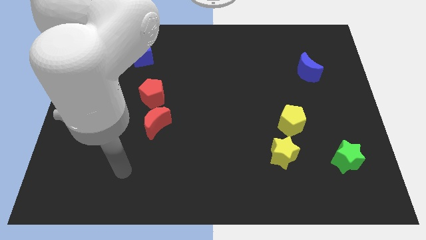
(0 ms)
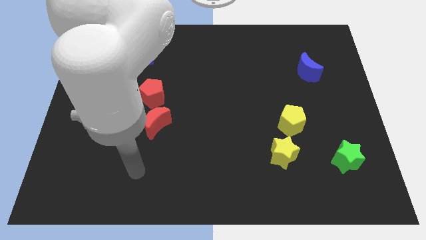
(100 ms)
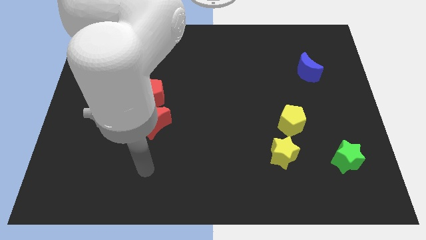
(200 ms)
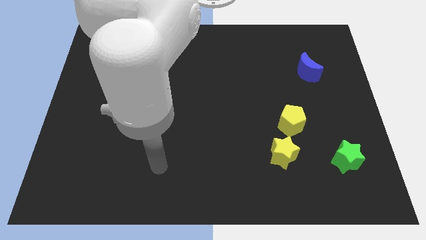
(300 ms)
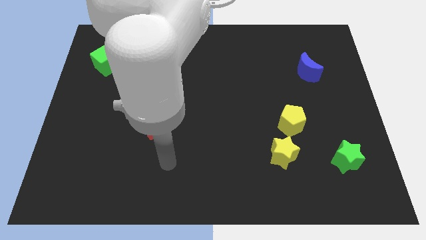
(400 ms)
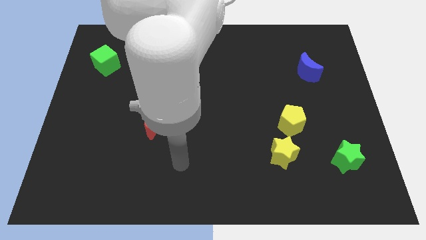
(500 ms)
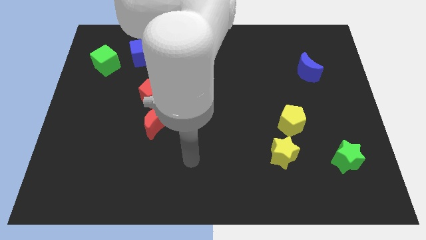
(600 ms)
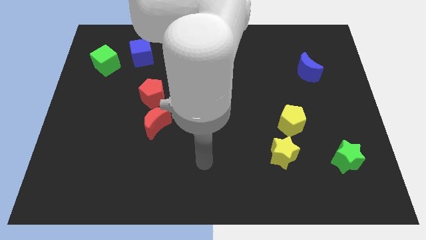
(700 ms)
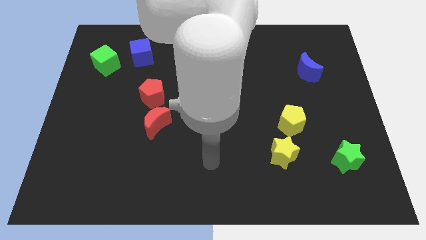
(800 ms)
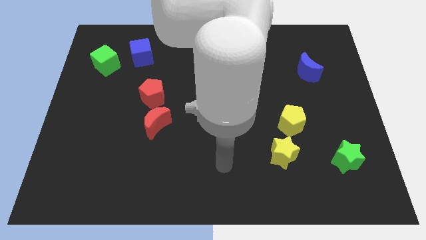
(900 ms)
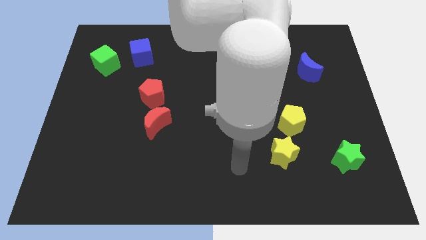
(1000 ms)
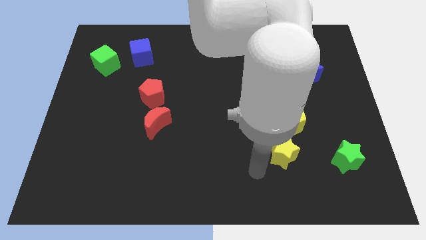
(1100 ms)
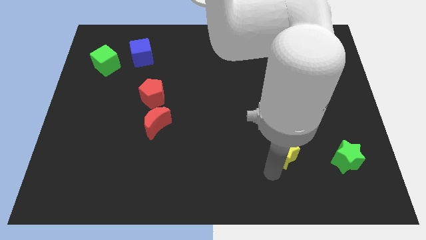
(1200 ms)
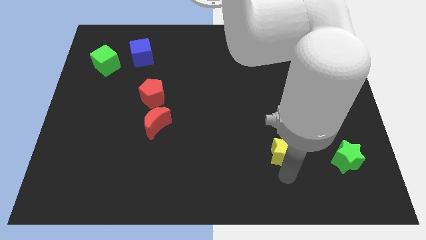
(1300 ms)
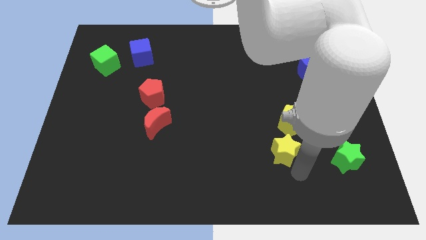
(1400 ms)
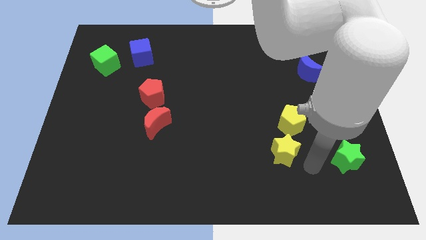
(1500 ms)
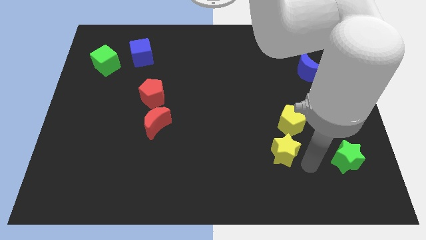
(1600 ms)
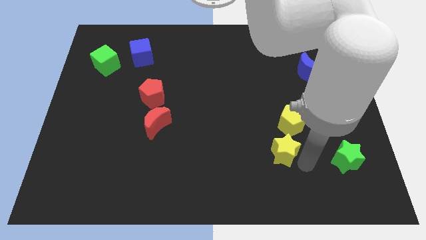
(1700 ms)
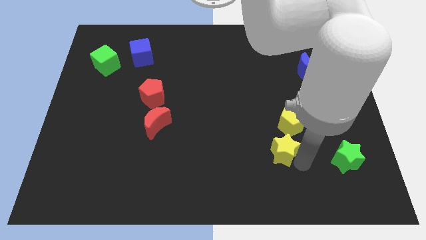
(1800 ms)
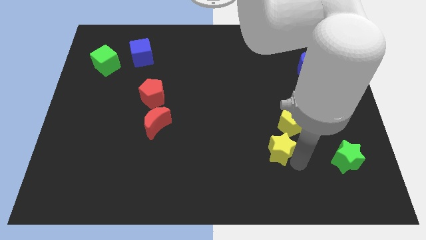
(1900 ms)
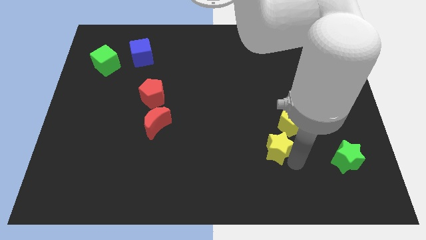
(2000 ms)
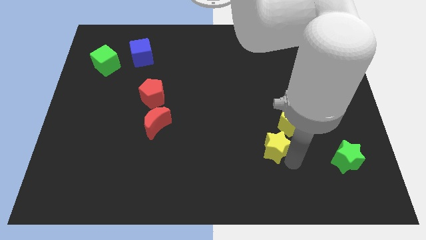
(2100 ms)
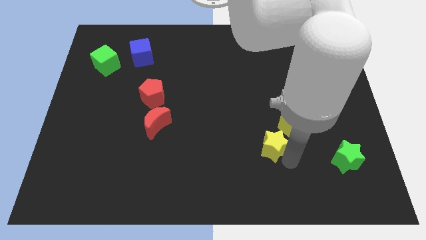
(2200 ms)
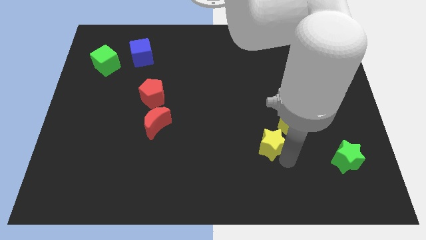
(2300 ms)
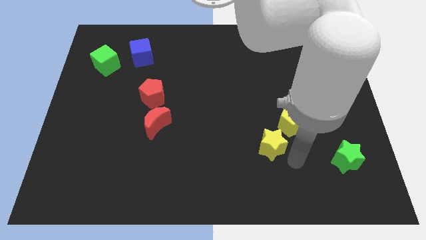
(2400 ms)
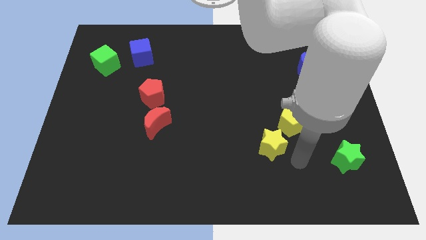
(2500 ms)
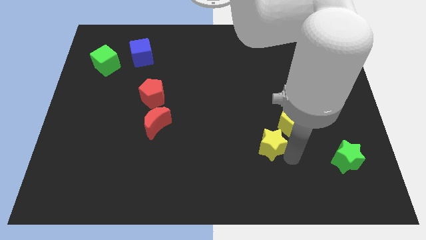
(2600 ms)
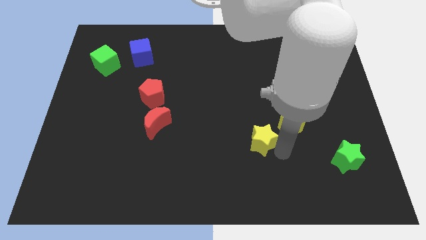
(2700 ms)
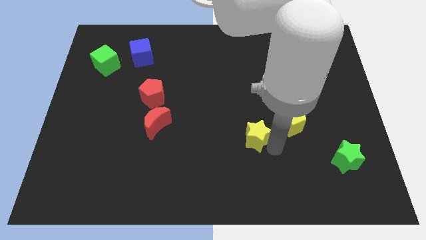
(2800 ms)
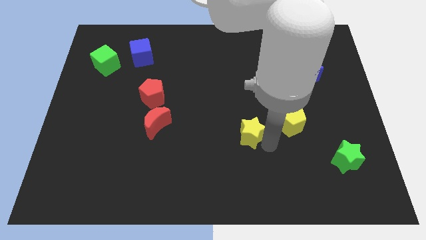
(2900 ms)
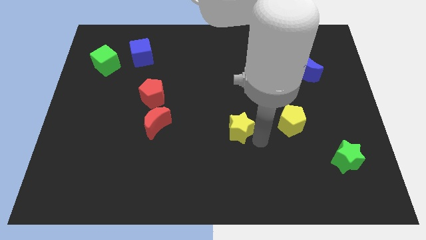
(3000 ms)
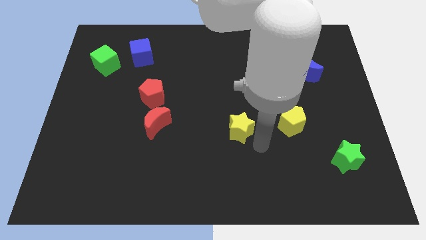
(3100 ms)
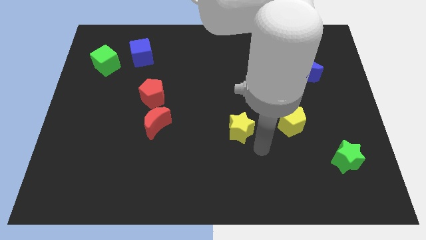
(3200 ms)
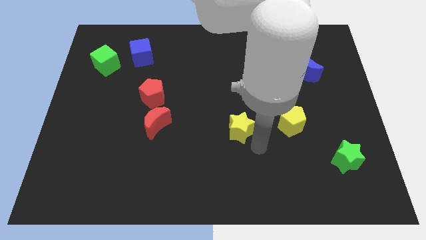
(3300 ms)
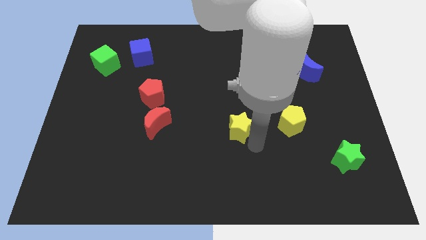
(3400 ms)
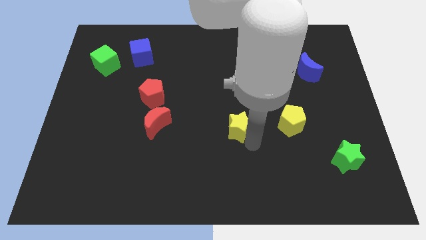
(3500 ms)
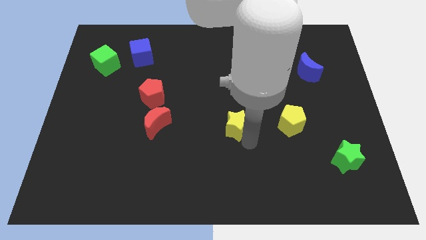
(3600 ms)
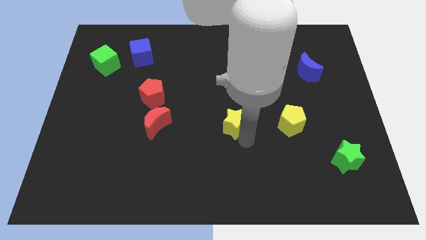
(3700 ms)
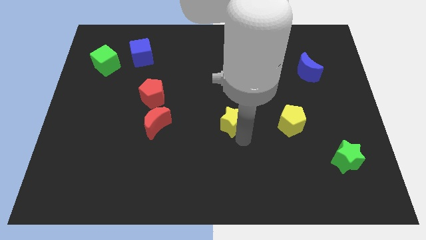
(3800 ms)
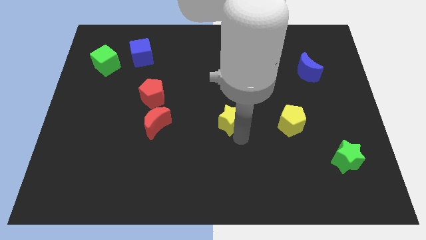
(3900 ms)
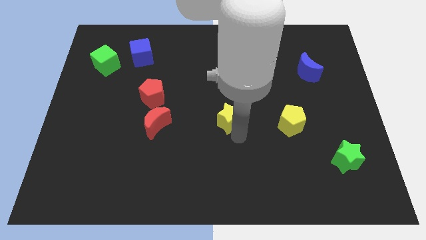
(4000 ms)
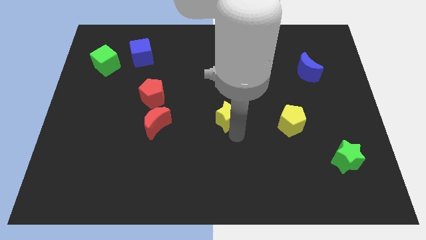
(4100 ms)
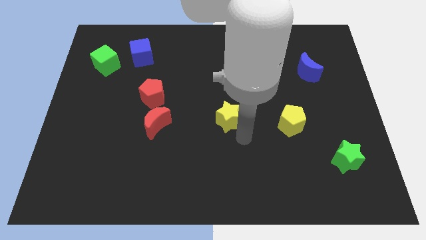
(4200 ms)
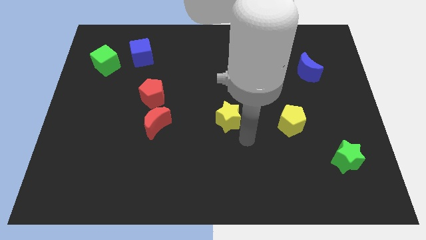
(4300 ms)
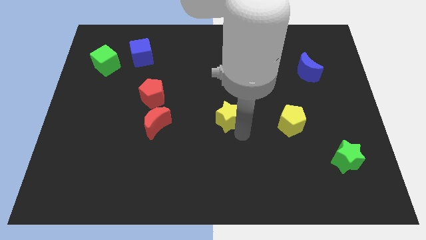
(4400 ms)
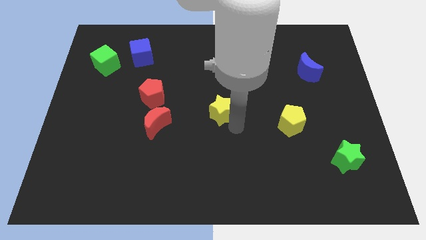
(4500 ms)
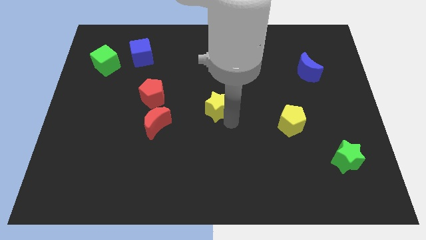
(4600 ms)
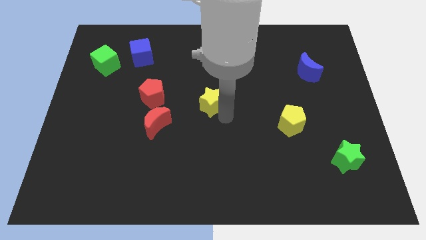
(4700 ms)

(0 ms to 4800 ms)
slide the yellow star up and left

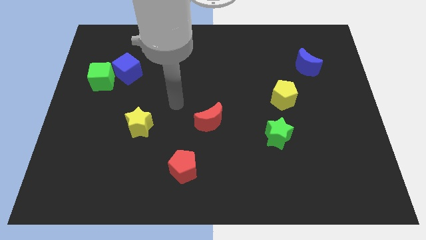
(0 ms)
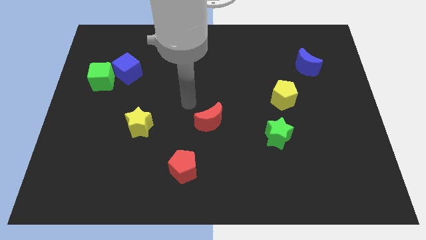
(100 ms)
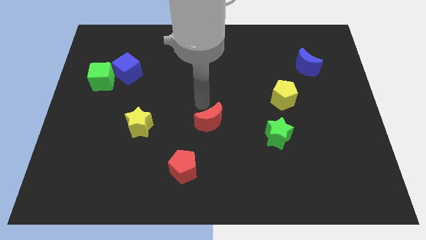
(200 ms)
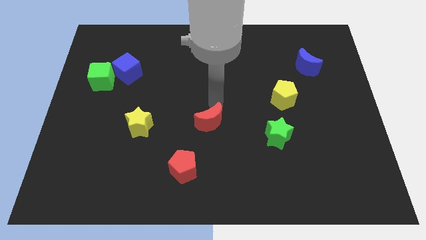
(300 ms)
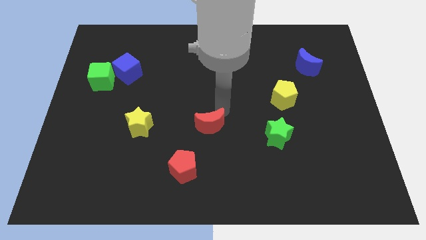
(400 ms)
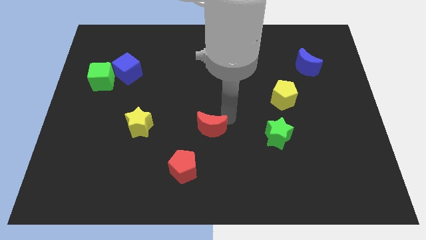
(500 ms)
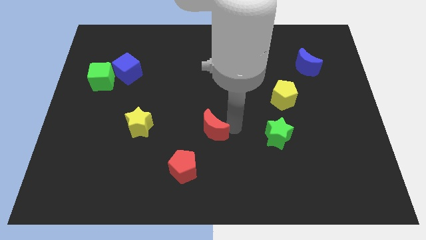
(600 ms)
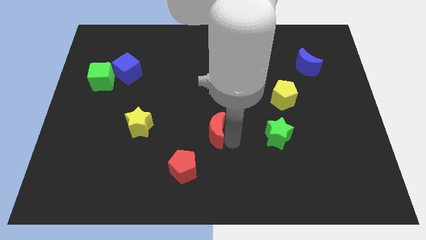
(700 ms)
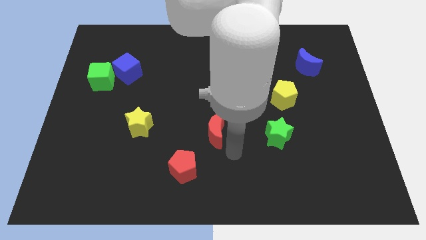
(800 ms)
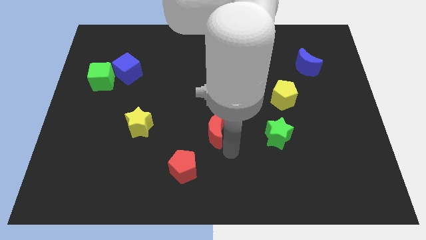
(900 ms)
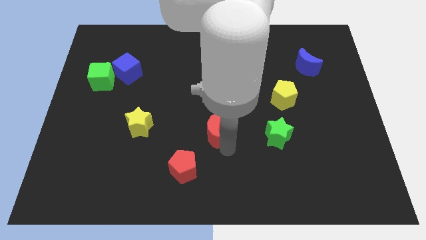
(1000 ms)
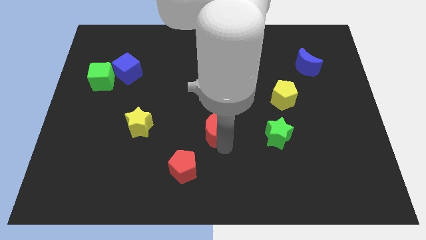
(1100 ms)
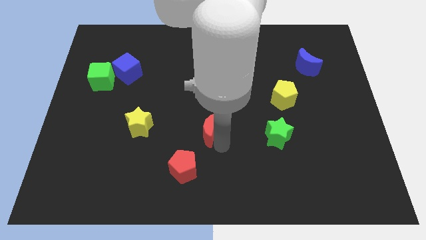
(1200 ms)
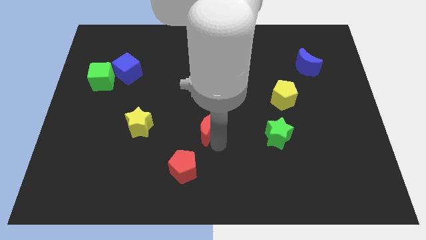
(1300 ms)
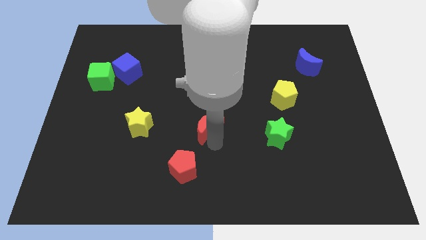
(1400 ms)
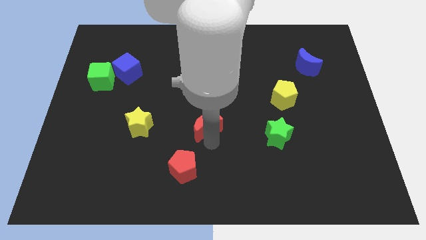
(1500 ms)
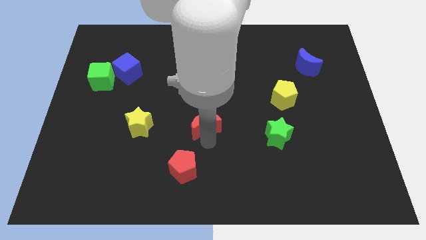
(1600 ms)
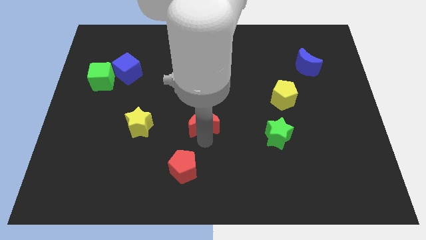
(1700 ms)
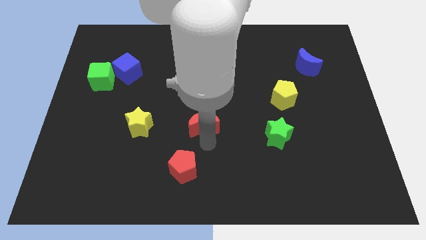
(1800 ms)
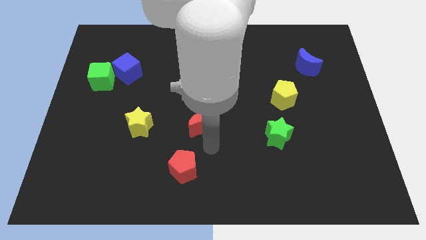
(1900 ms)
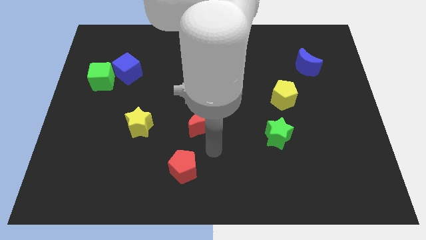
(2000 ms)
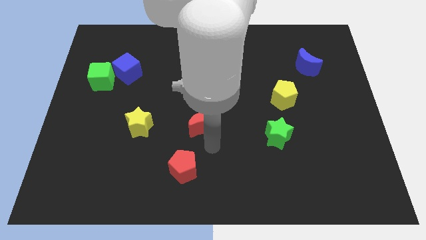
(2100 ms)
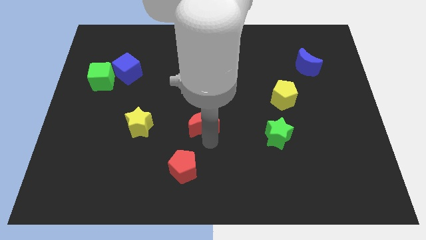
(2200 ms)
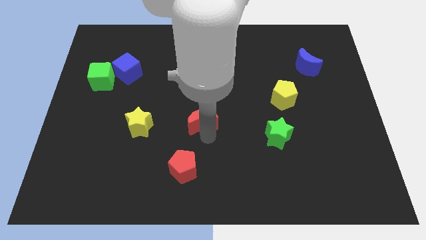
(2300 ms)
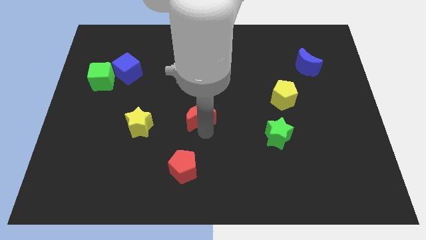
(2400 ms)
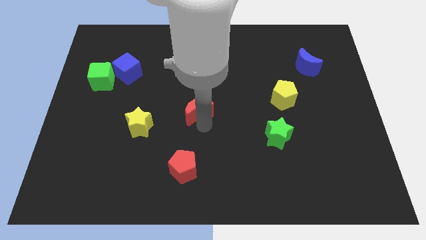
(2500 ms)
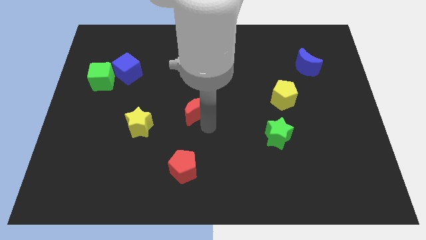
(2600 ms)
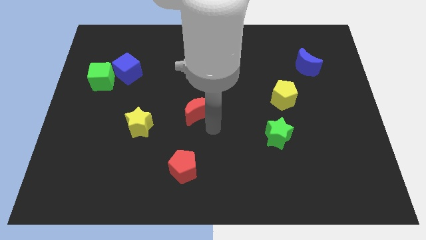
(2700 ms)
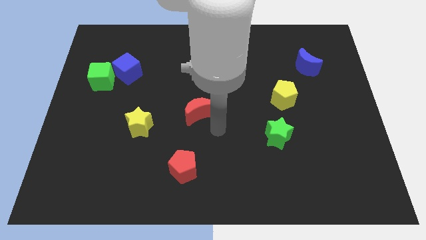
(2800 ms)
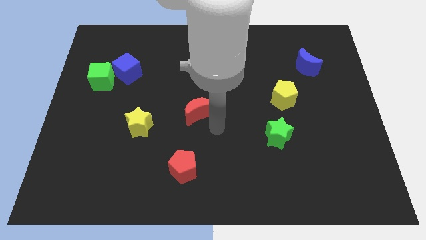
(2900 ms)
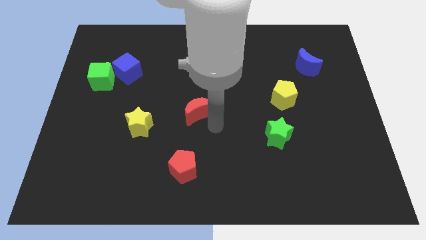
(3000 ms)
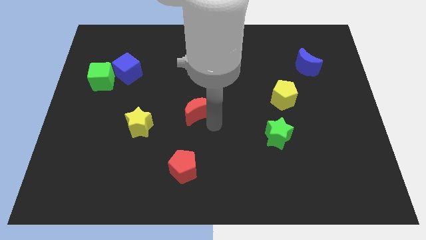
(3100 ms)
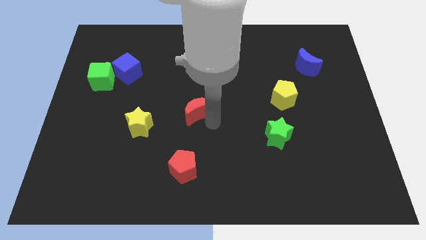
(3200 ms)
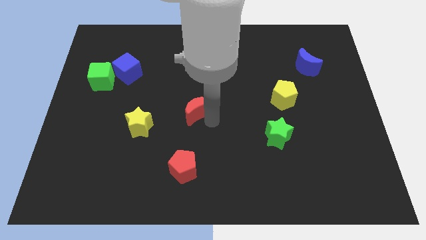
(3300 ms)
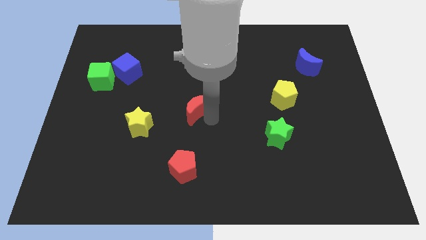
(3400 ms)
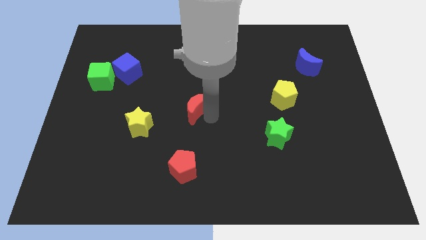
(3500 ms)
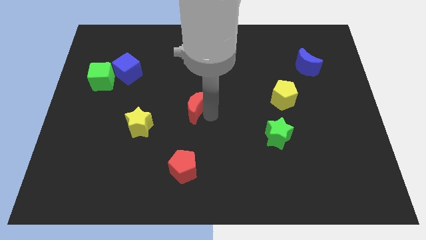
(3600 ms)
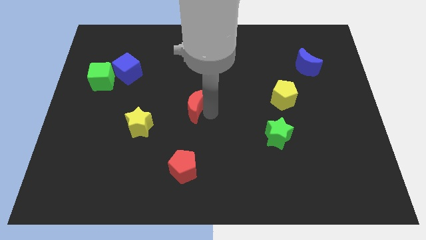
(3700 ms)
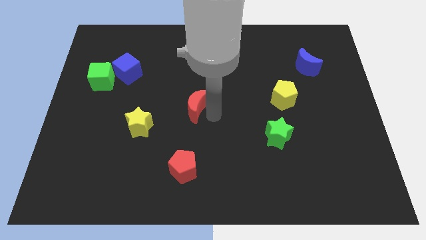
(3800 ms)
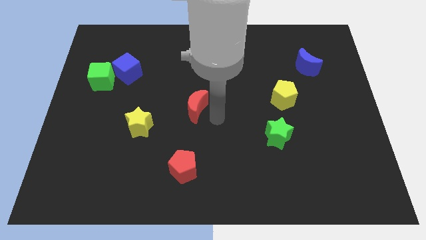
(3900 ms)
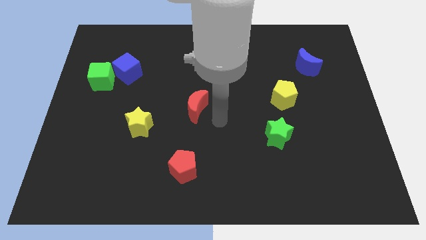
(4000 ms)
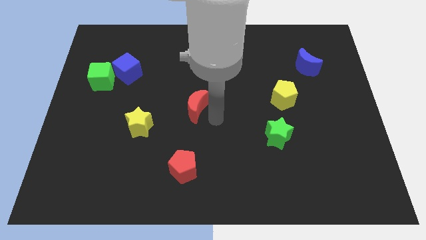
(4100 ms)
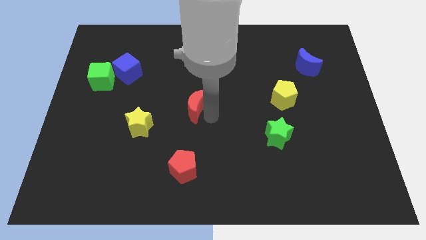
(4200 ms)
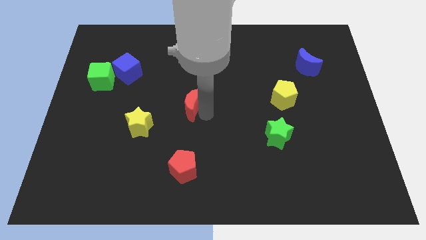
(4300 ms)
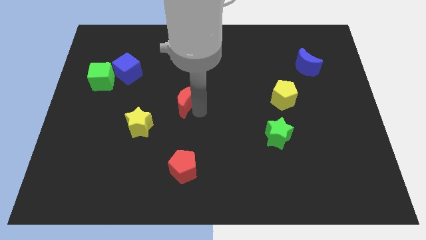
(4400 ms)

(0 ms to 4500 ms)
push the red moon diagonally up and left slightly
